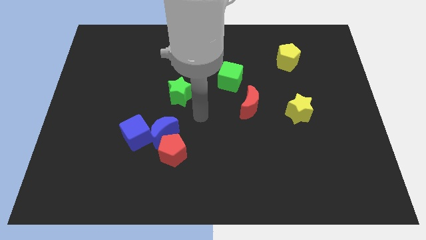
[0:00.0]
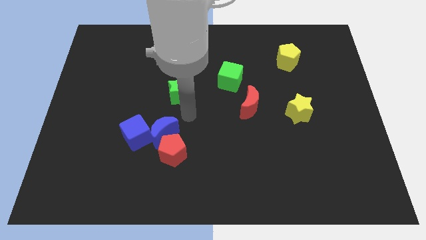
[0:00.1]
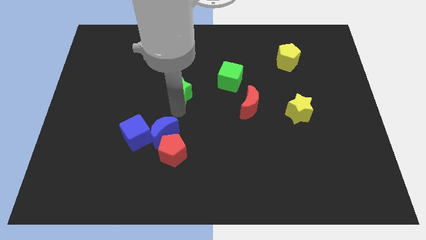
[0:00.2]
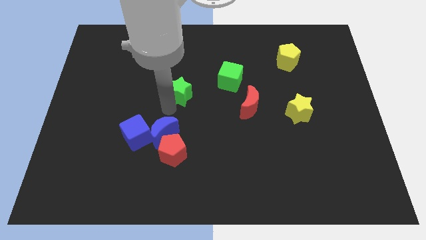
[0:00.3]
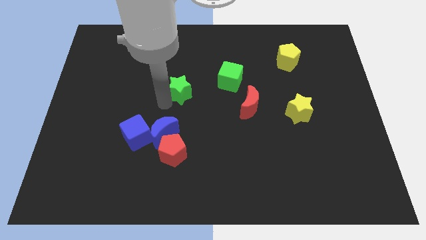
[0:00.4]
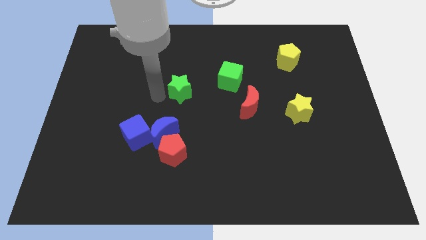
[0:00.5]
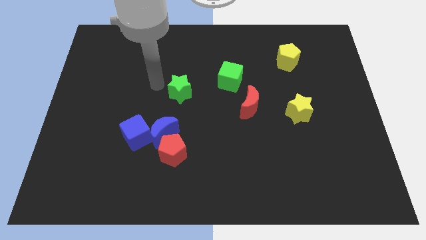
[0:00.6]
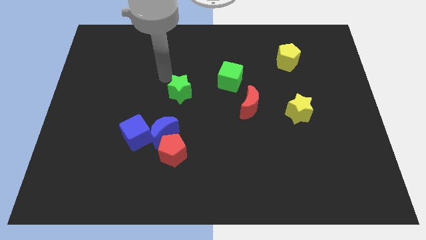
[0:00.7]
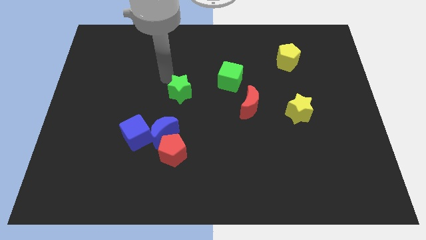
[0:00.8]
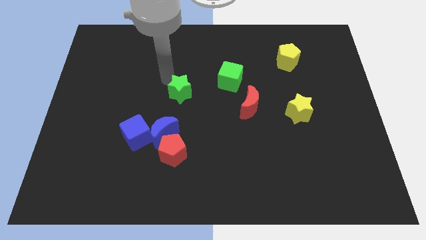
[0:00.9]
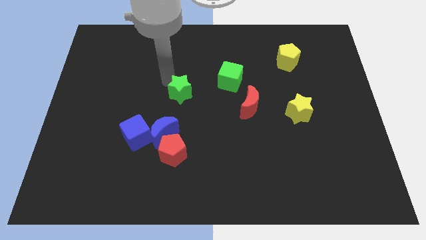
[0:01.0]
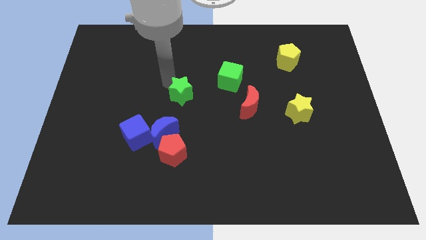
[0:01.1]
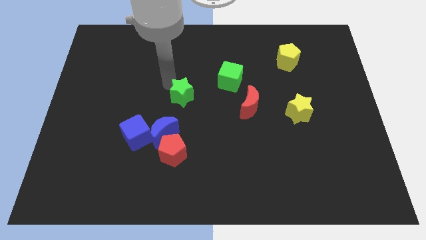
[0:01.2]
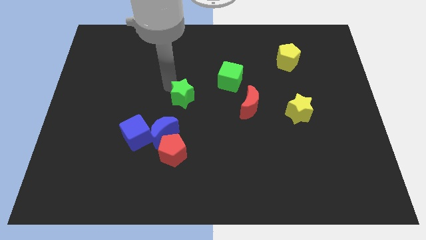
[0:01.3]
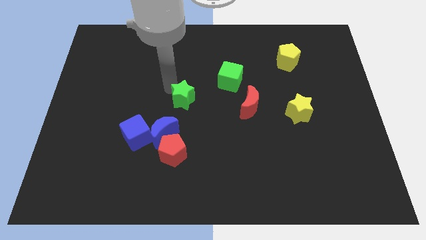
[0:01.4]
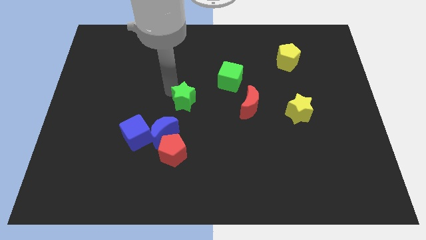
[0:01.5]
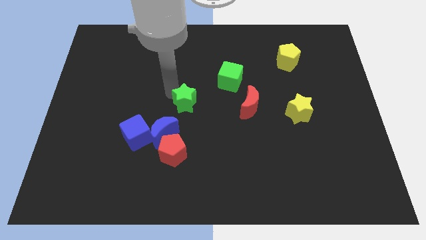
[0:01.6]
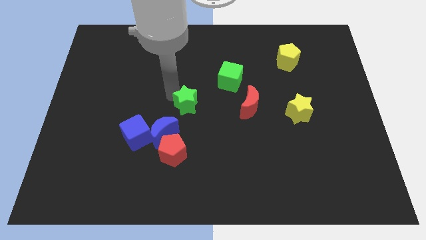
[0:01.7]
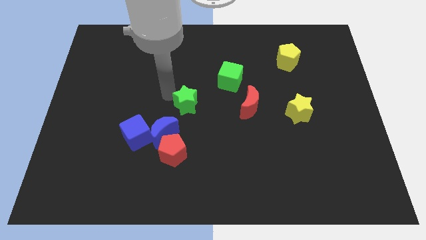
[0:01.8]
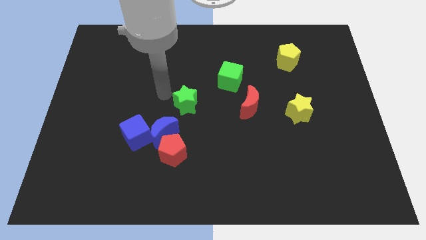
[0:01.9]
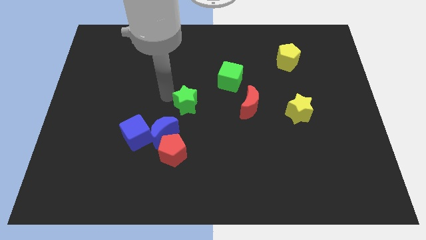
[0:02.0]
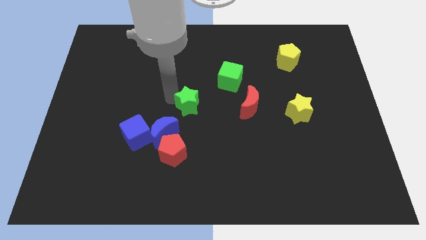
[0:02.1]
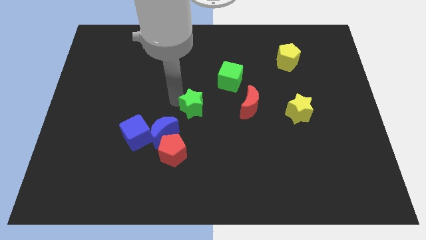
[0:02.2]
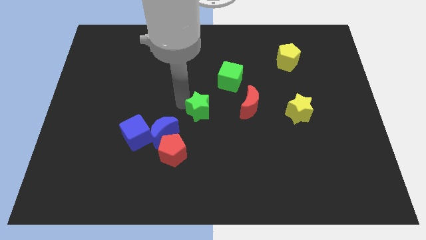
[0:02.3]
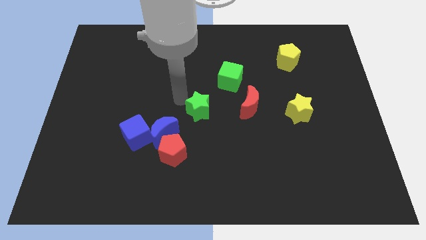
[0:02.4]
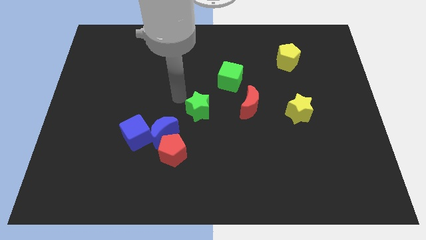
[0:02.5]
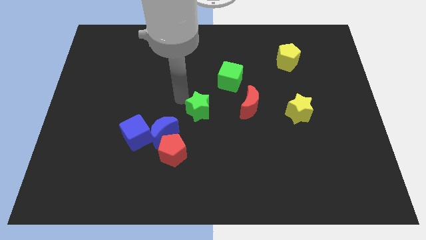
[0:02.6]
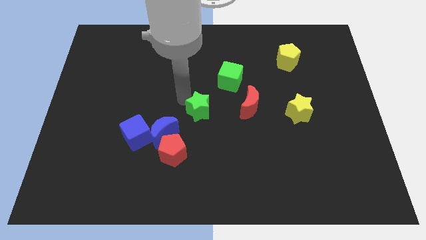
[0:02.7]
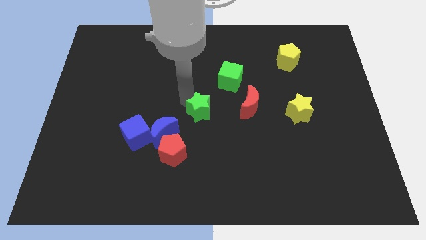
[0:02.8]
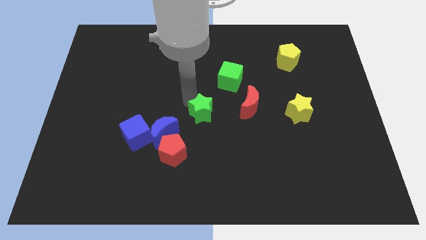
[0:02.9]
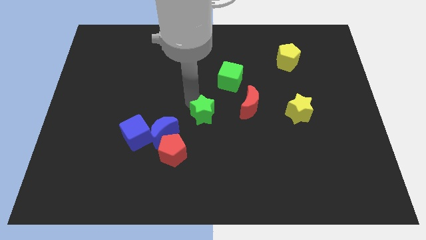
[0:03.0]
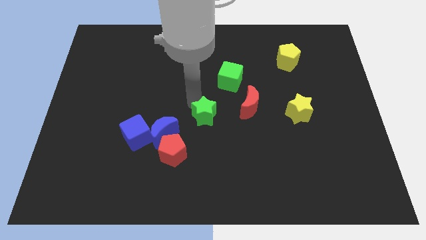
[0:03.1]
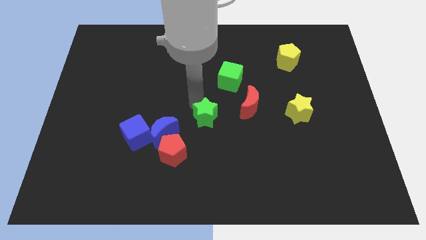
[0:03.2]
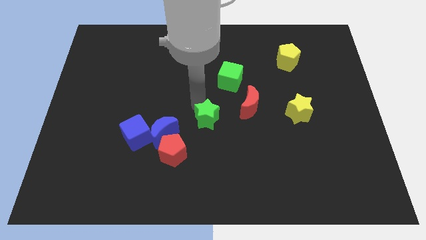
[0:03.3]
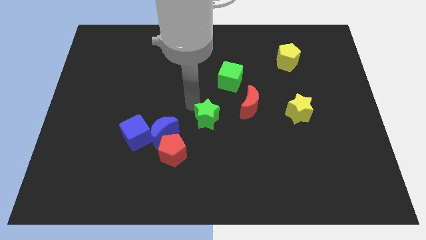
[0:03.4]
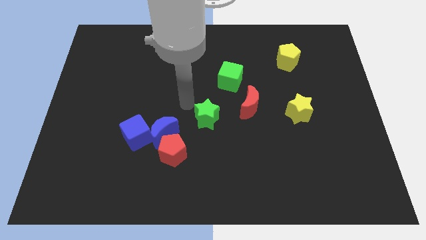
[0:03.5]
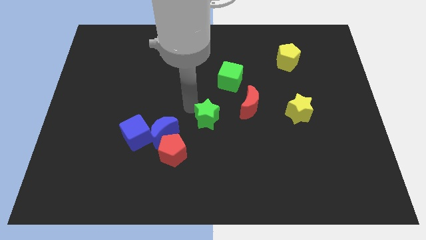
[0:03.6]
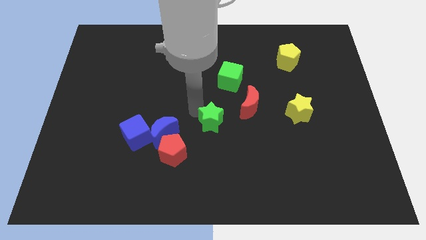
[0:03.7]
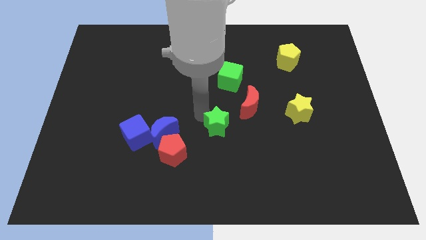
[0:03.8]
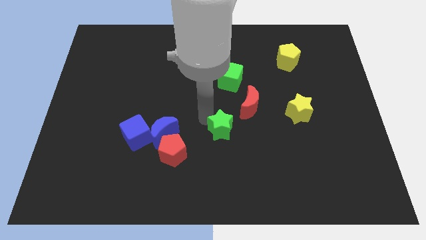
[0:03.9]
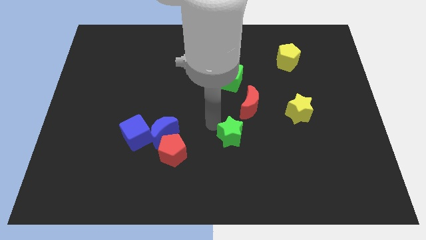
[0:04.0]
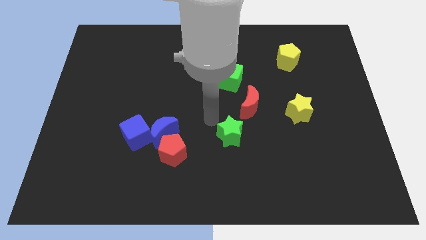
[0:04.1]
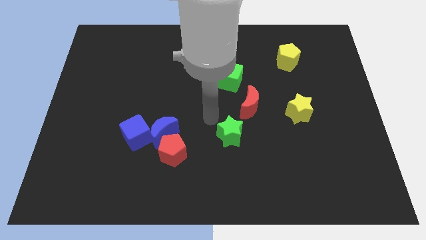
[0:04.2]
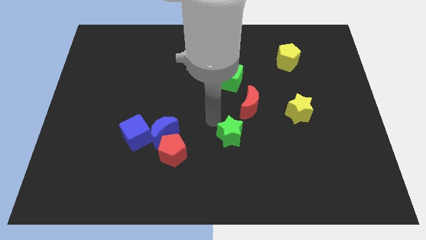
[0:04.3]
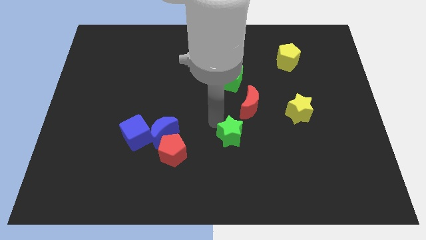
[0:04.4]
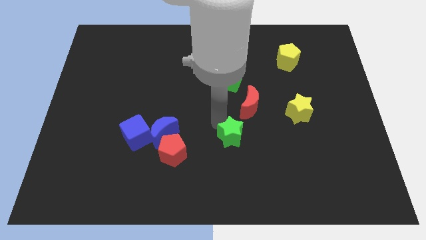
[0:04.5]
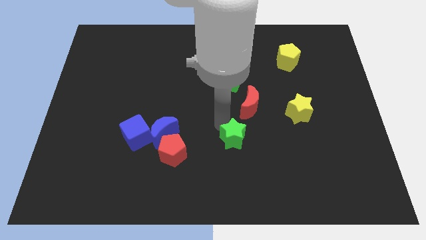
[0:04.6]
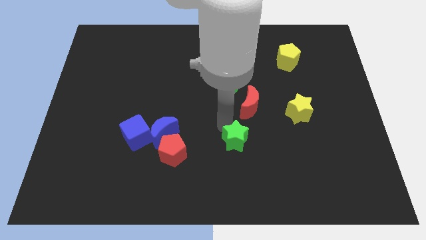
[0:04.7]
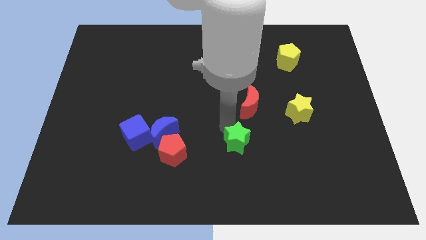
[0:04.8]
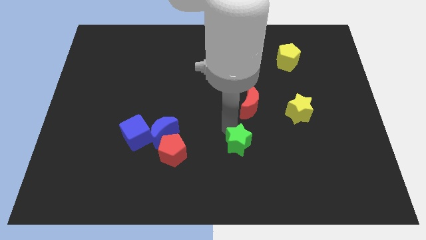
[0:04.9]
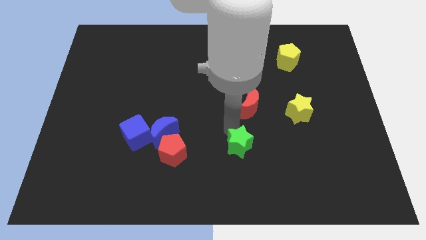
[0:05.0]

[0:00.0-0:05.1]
push the green star downwards and right

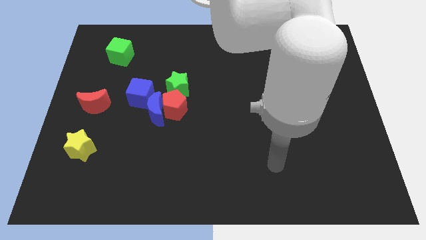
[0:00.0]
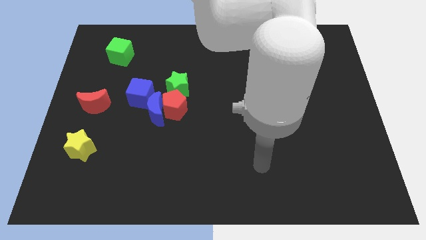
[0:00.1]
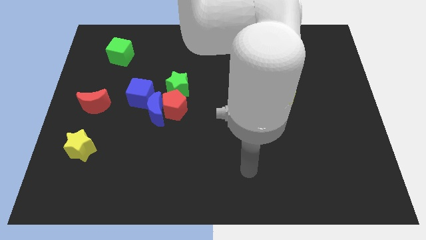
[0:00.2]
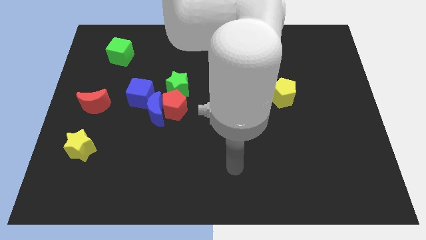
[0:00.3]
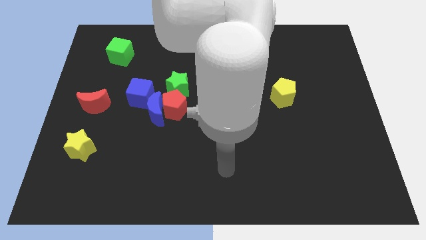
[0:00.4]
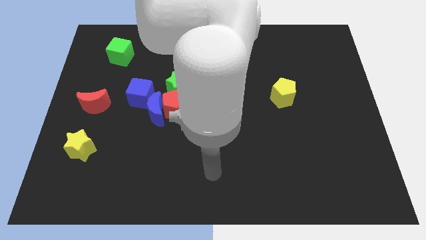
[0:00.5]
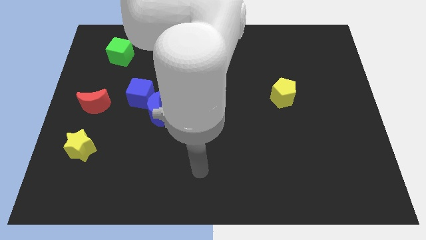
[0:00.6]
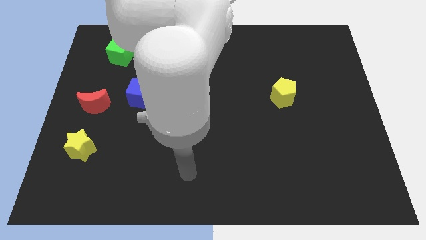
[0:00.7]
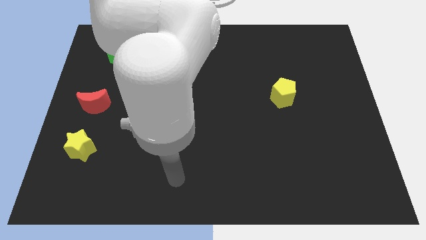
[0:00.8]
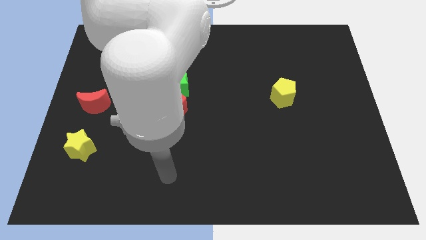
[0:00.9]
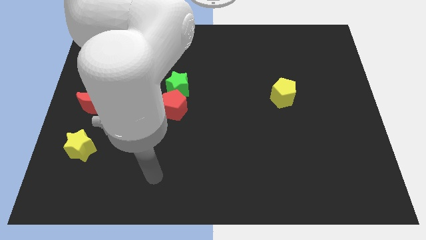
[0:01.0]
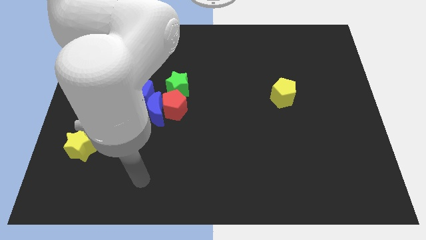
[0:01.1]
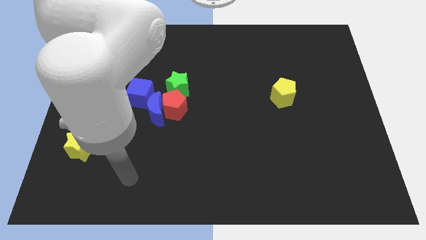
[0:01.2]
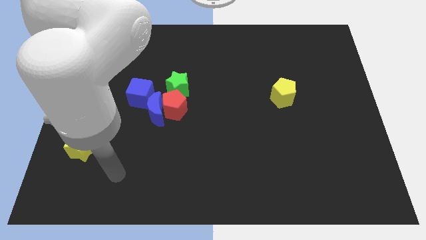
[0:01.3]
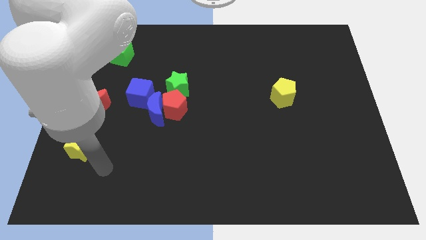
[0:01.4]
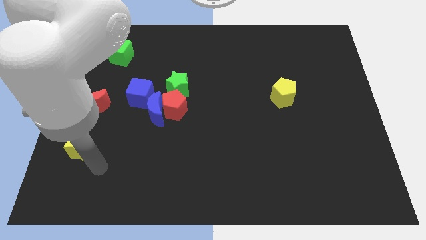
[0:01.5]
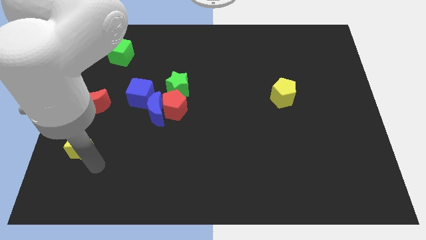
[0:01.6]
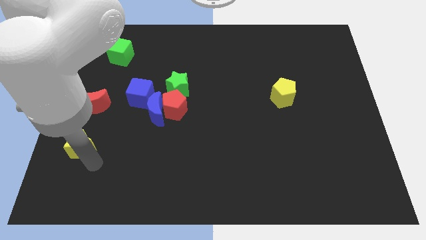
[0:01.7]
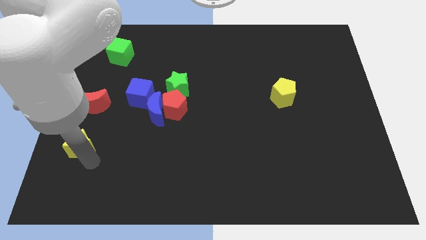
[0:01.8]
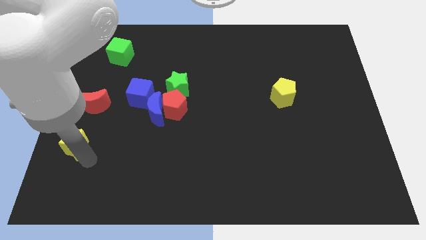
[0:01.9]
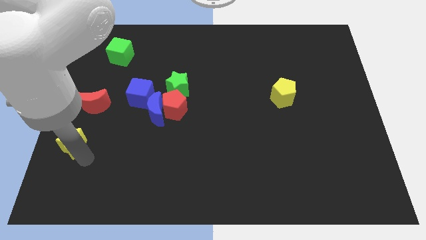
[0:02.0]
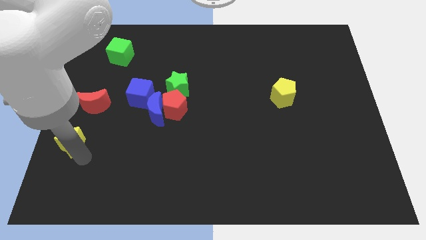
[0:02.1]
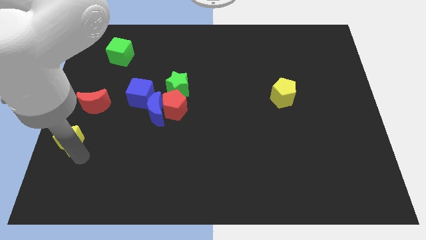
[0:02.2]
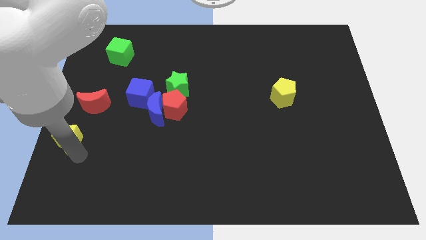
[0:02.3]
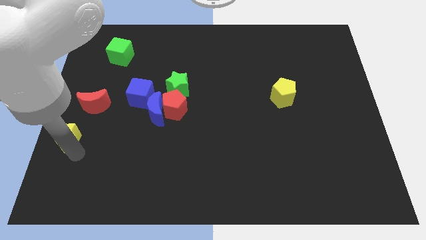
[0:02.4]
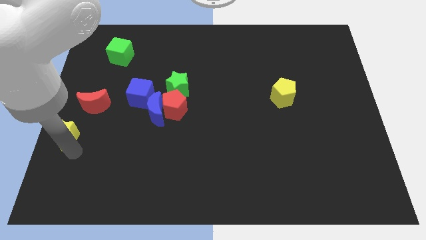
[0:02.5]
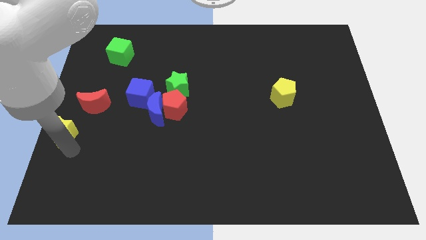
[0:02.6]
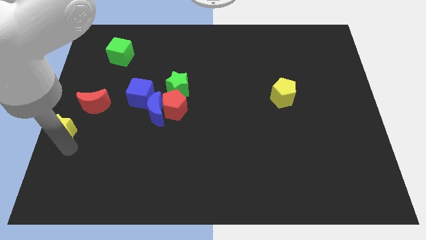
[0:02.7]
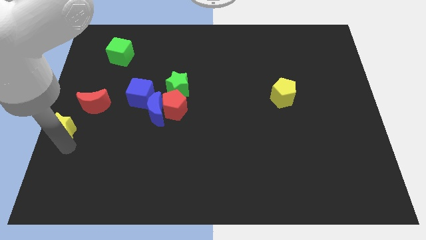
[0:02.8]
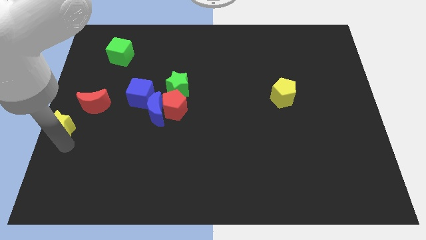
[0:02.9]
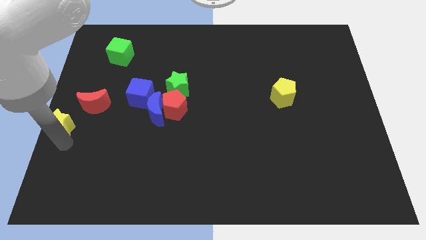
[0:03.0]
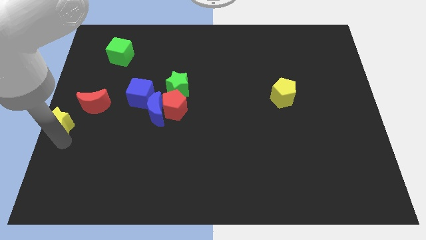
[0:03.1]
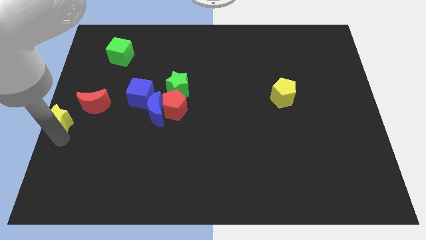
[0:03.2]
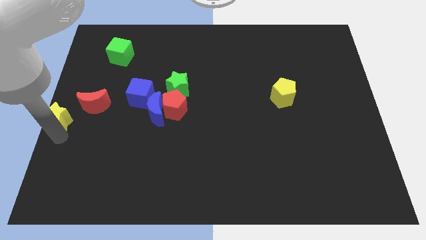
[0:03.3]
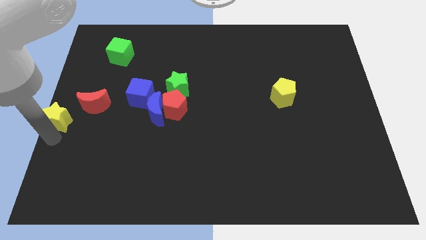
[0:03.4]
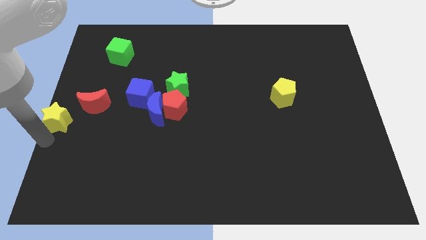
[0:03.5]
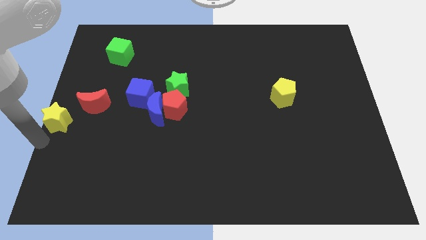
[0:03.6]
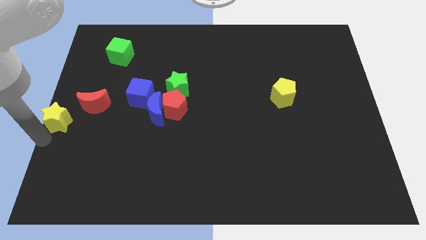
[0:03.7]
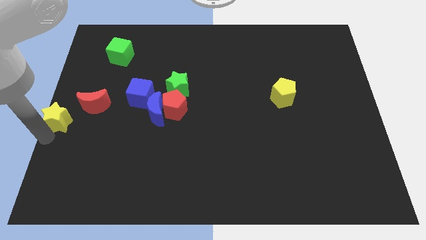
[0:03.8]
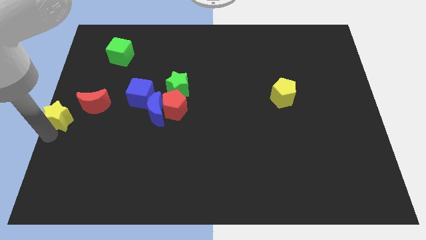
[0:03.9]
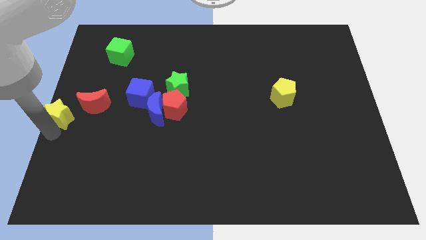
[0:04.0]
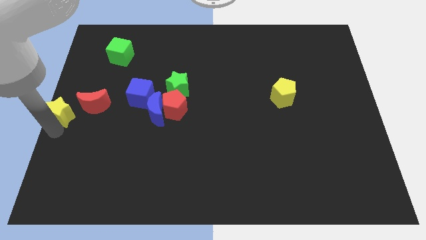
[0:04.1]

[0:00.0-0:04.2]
move the yellow star upwards a bit
